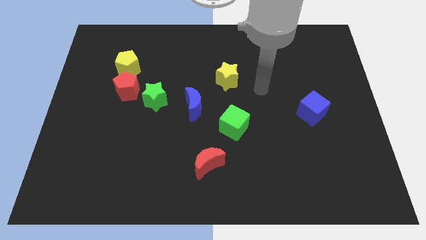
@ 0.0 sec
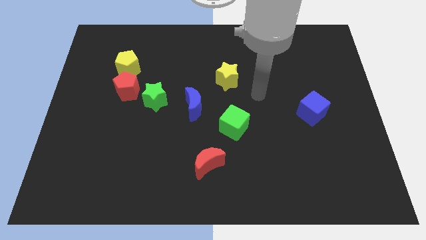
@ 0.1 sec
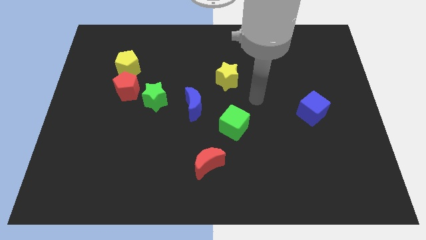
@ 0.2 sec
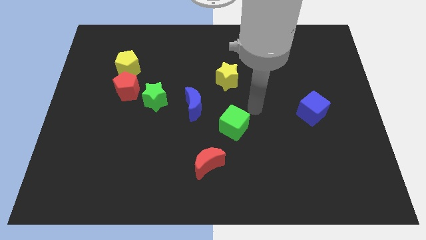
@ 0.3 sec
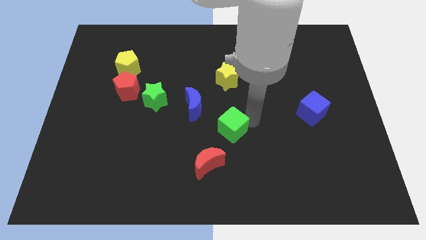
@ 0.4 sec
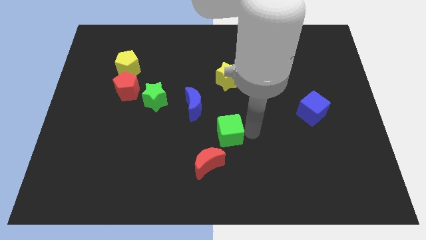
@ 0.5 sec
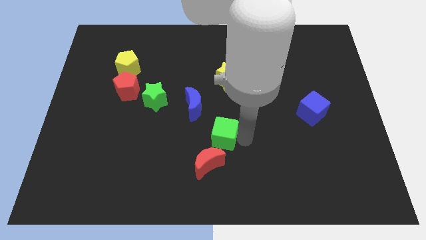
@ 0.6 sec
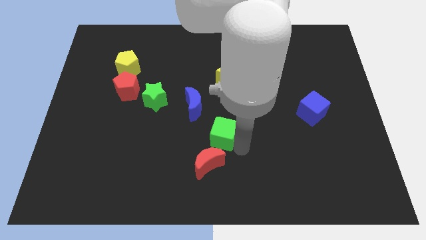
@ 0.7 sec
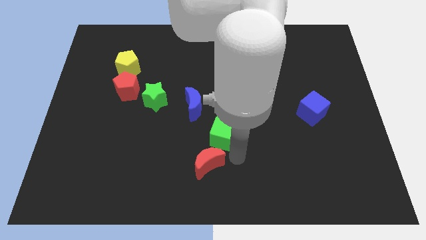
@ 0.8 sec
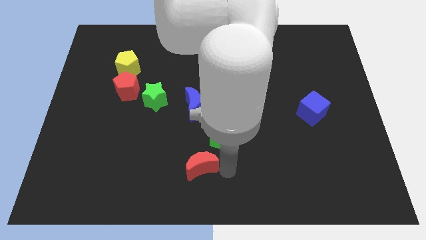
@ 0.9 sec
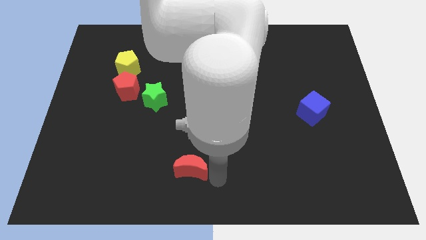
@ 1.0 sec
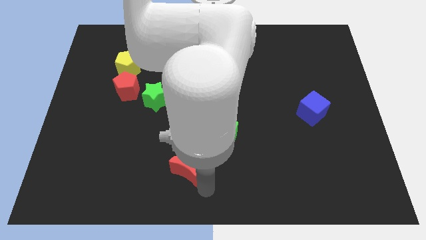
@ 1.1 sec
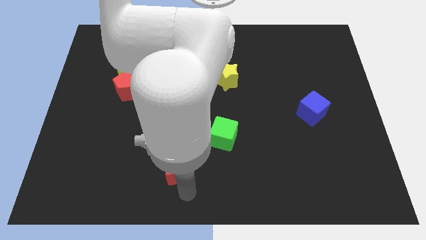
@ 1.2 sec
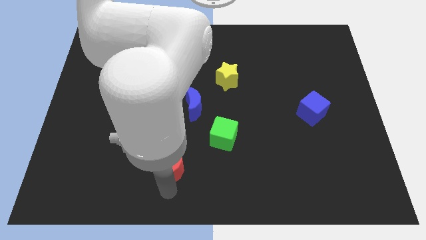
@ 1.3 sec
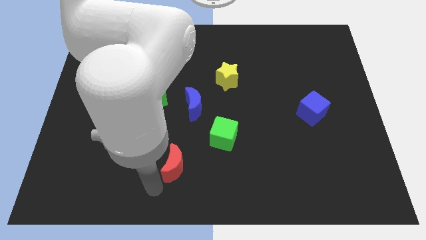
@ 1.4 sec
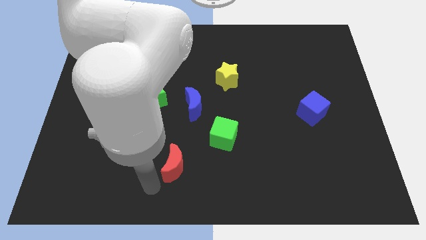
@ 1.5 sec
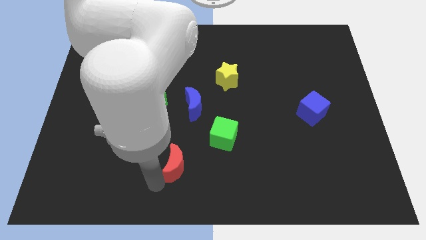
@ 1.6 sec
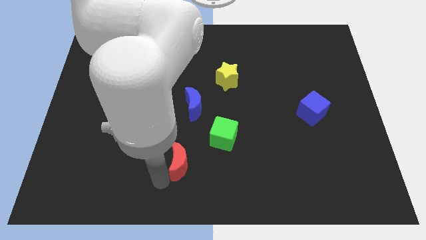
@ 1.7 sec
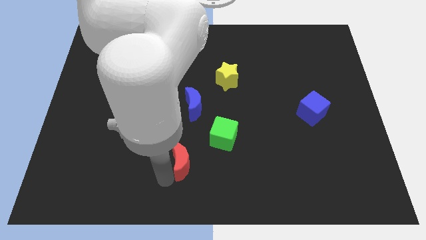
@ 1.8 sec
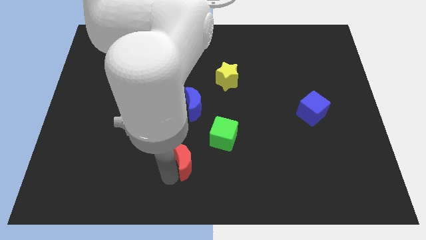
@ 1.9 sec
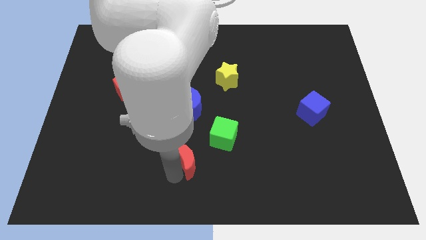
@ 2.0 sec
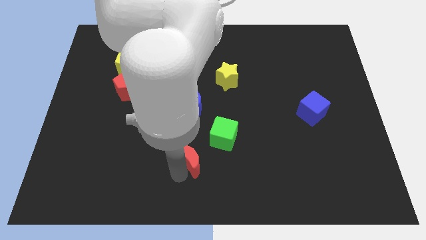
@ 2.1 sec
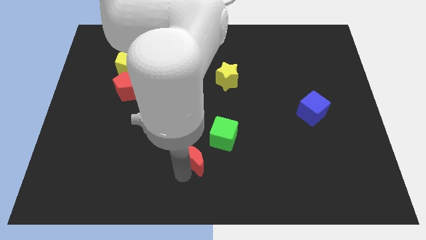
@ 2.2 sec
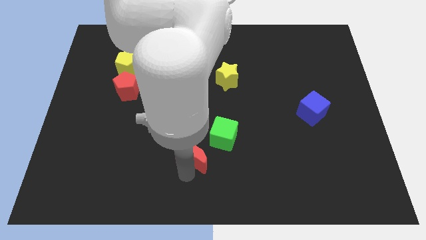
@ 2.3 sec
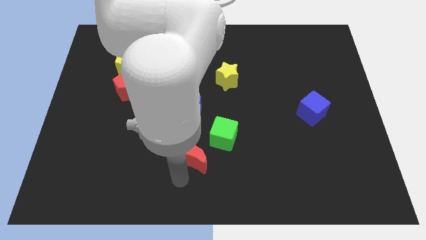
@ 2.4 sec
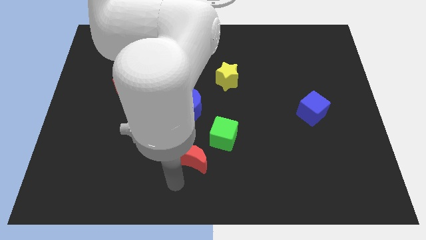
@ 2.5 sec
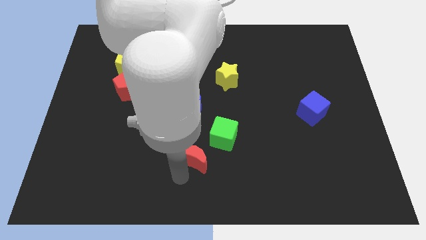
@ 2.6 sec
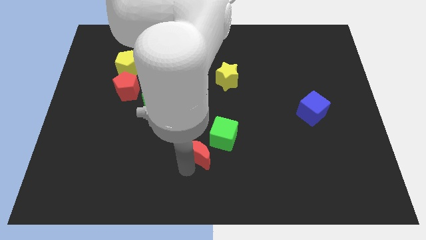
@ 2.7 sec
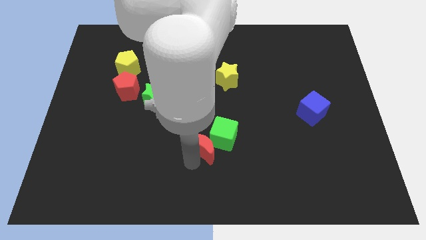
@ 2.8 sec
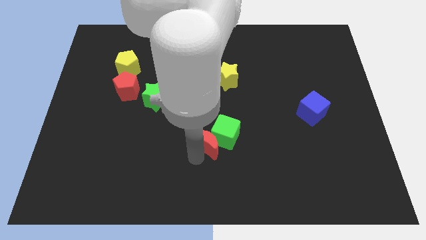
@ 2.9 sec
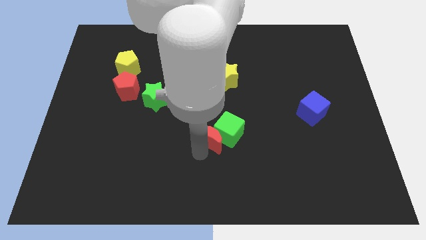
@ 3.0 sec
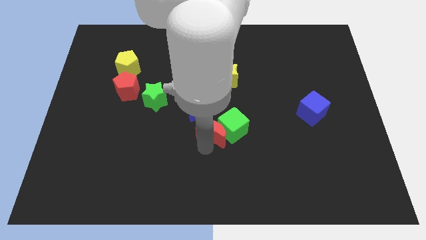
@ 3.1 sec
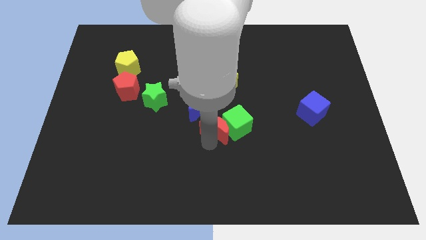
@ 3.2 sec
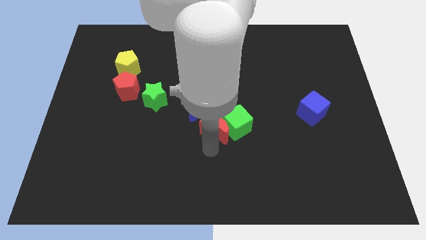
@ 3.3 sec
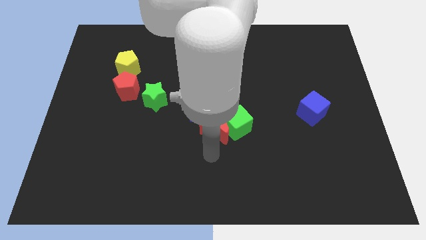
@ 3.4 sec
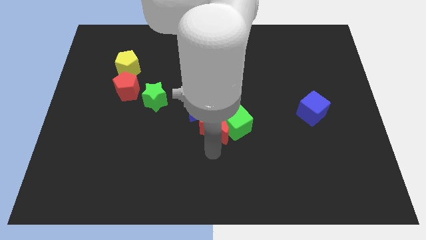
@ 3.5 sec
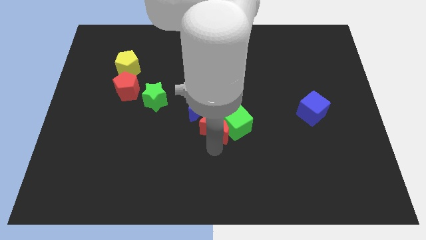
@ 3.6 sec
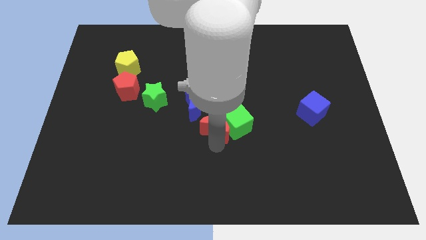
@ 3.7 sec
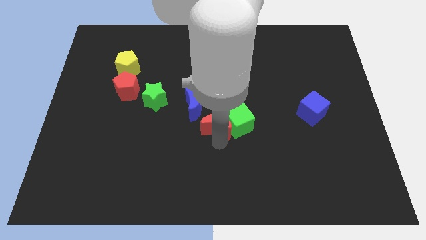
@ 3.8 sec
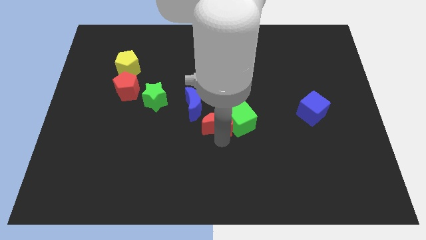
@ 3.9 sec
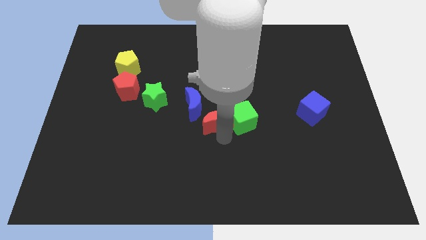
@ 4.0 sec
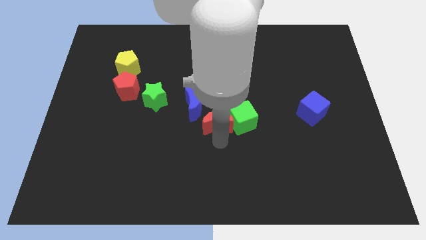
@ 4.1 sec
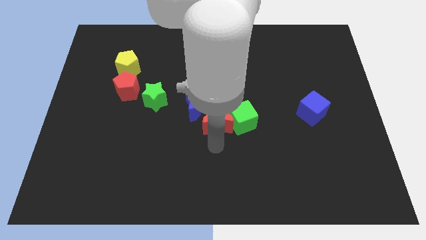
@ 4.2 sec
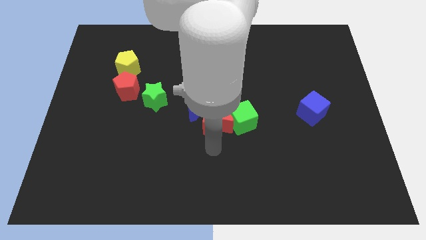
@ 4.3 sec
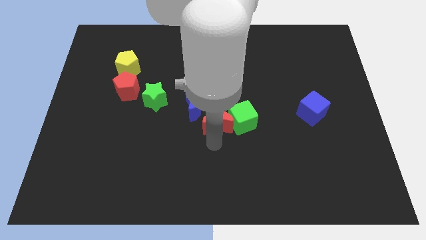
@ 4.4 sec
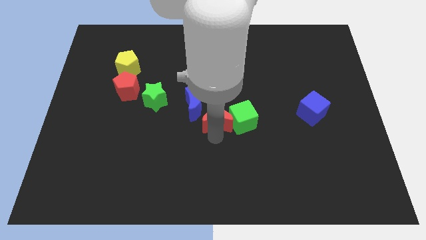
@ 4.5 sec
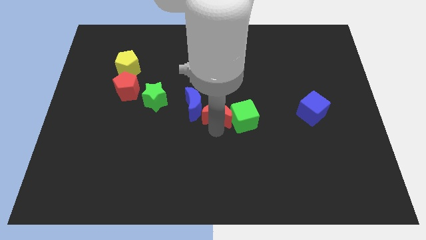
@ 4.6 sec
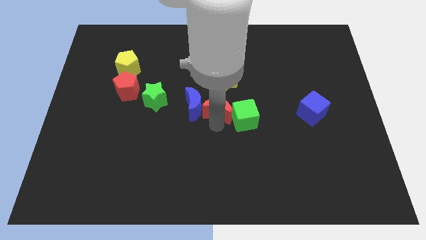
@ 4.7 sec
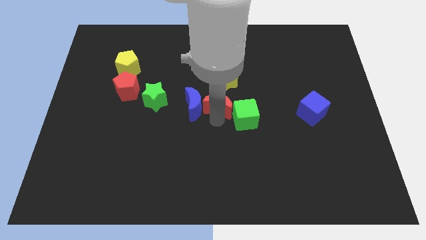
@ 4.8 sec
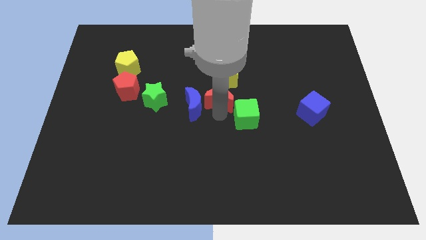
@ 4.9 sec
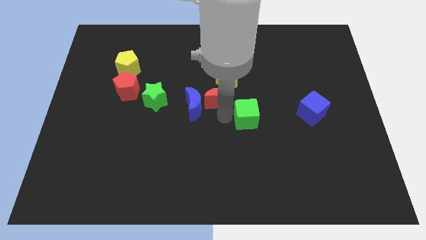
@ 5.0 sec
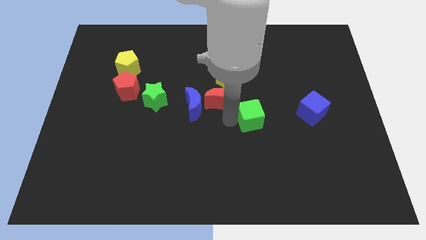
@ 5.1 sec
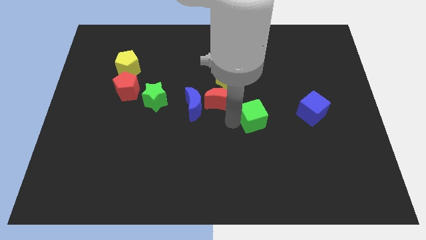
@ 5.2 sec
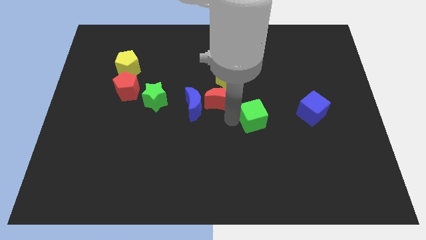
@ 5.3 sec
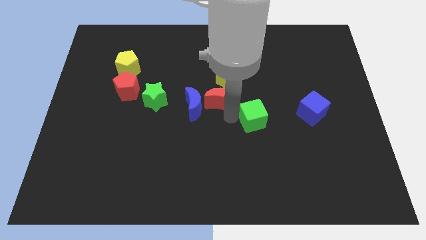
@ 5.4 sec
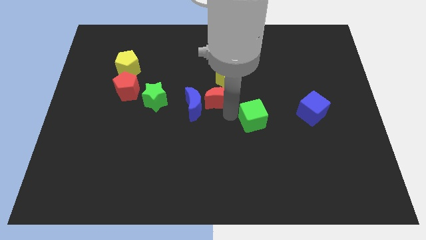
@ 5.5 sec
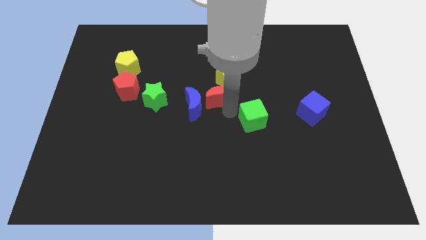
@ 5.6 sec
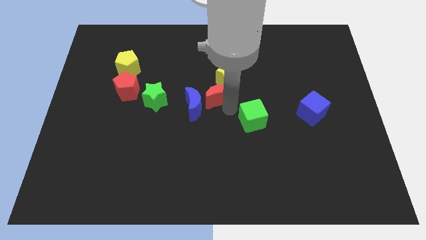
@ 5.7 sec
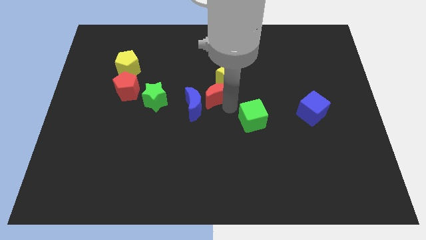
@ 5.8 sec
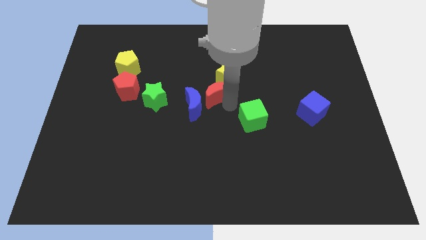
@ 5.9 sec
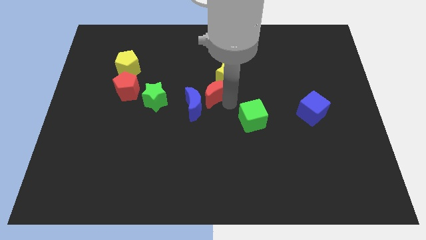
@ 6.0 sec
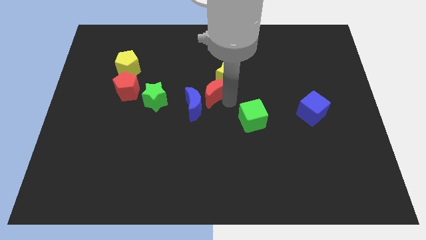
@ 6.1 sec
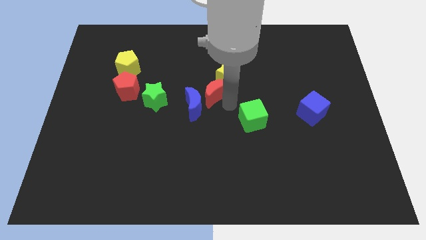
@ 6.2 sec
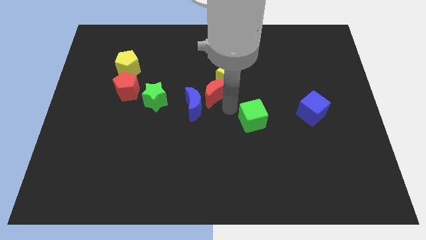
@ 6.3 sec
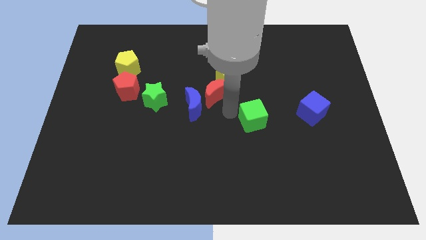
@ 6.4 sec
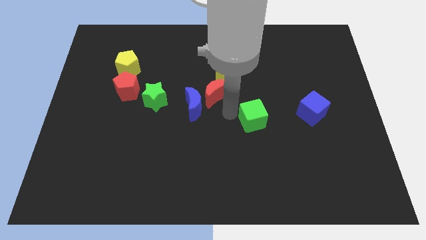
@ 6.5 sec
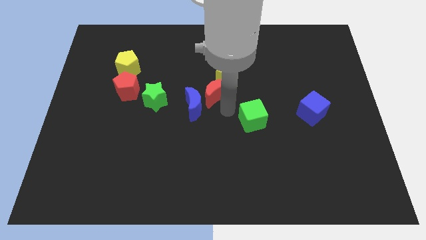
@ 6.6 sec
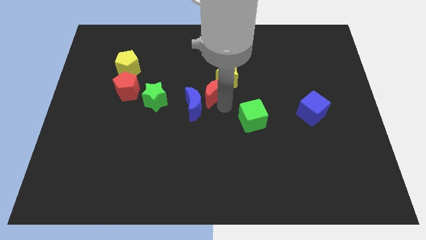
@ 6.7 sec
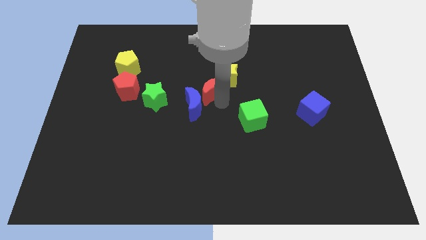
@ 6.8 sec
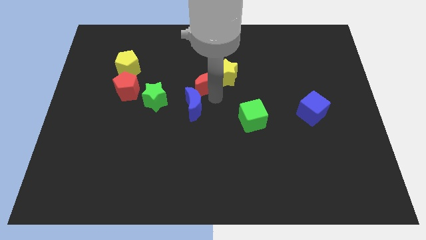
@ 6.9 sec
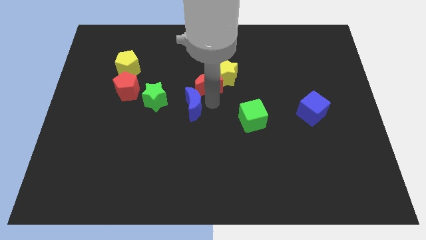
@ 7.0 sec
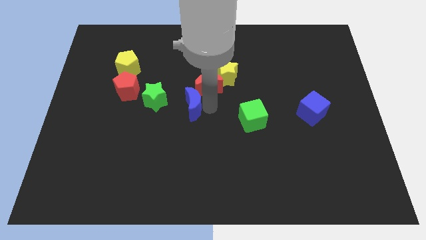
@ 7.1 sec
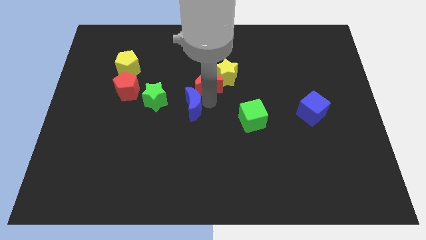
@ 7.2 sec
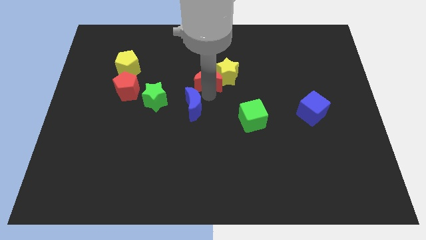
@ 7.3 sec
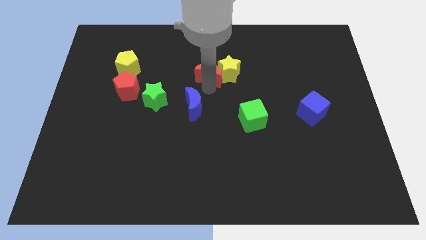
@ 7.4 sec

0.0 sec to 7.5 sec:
put the red moon to the top left side of the yellow star
